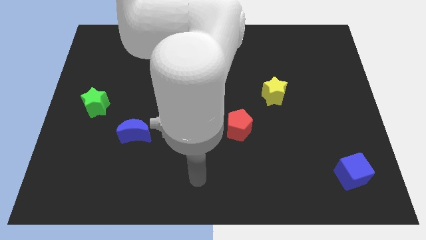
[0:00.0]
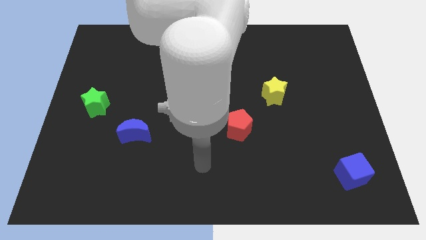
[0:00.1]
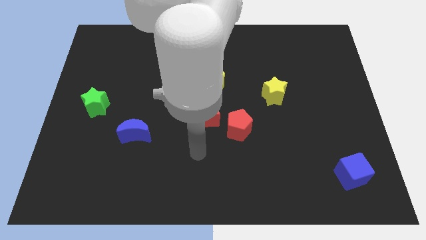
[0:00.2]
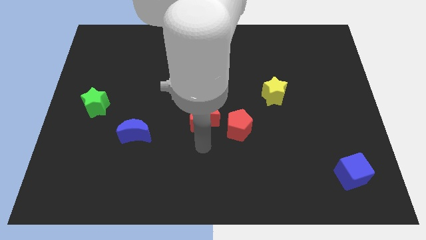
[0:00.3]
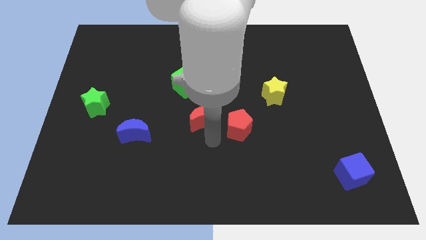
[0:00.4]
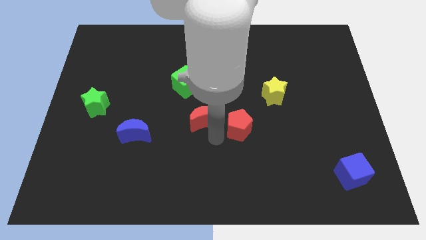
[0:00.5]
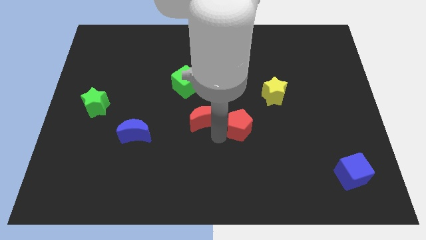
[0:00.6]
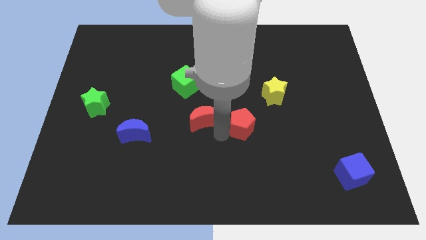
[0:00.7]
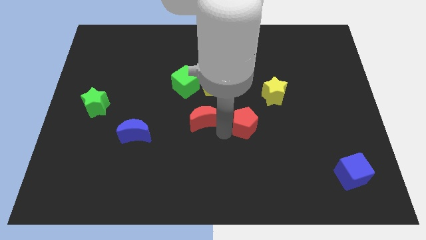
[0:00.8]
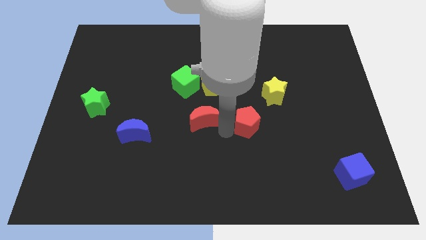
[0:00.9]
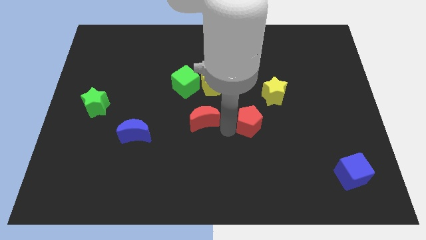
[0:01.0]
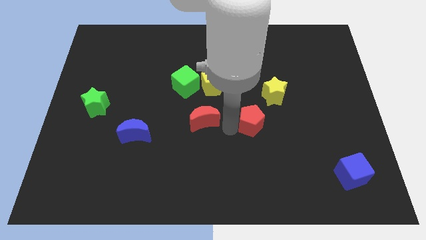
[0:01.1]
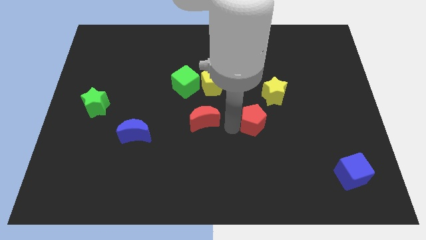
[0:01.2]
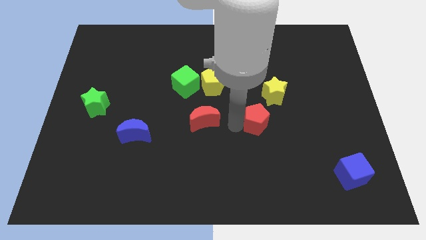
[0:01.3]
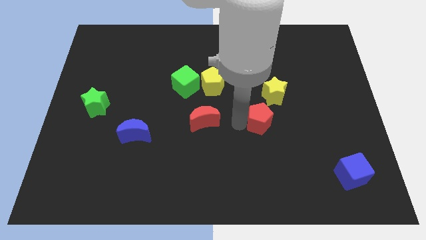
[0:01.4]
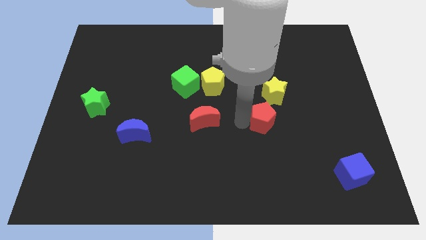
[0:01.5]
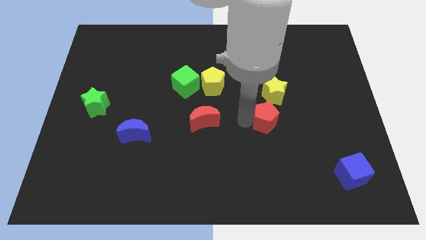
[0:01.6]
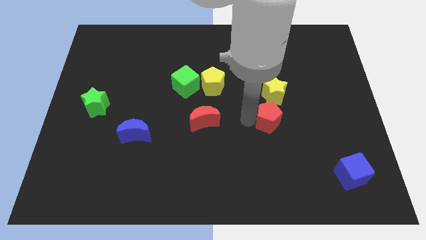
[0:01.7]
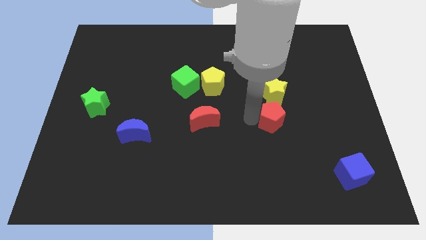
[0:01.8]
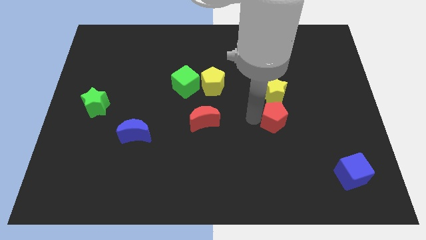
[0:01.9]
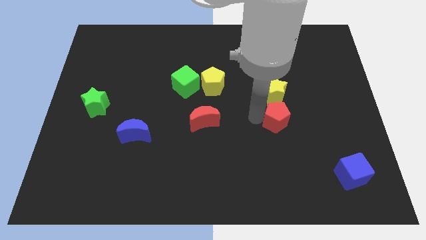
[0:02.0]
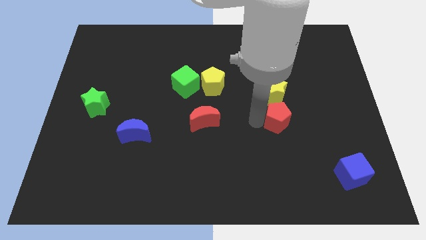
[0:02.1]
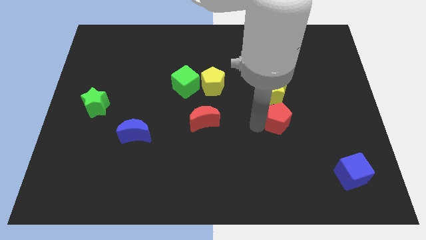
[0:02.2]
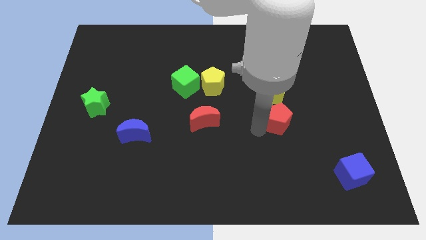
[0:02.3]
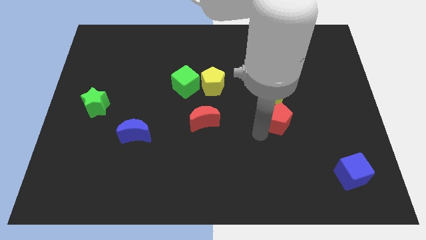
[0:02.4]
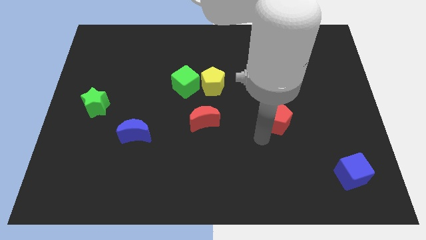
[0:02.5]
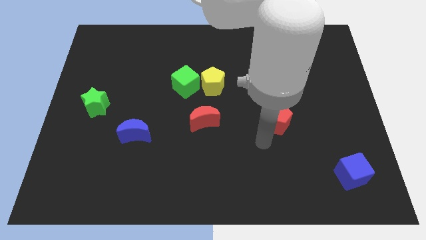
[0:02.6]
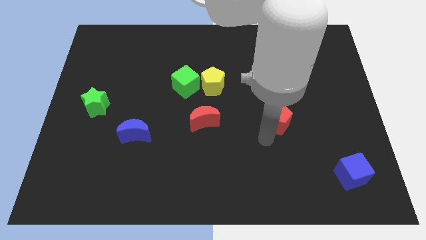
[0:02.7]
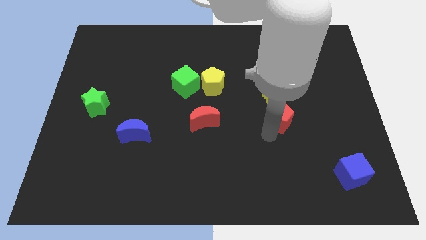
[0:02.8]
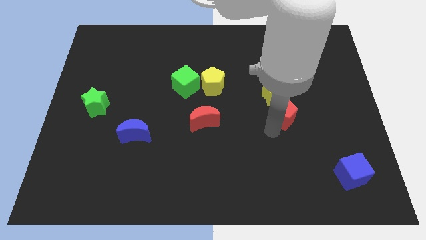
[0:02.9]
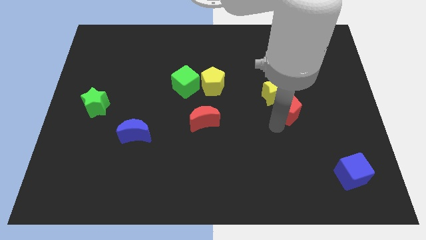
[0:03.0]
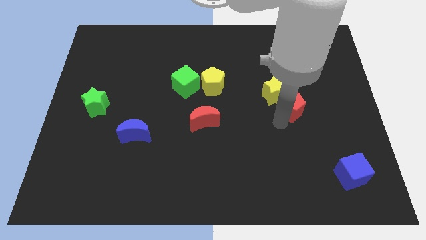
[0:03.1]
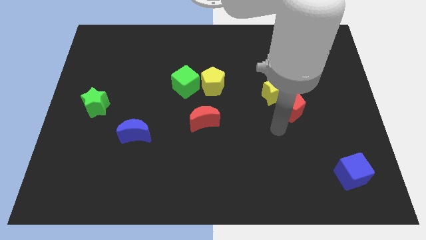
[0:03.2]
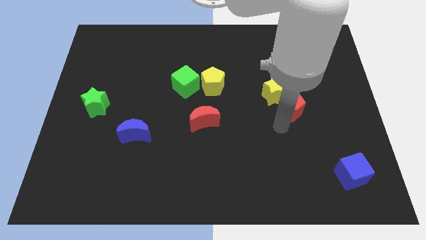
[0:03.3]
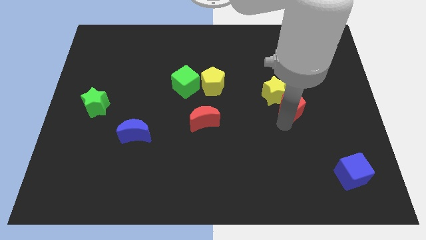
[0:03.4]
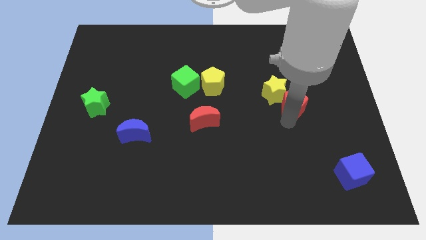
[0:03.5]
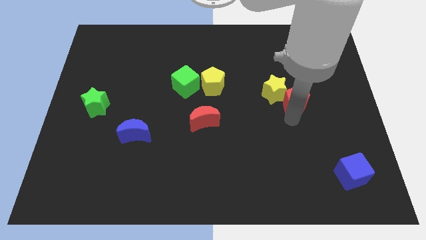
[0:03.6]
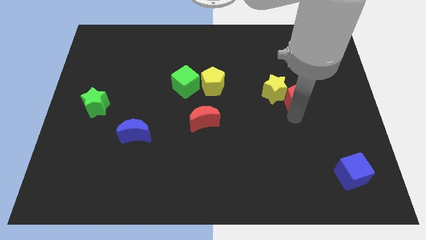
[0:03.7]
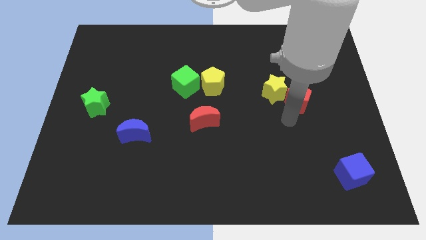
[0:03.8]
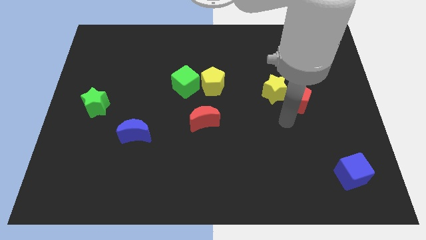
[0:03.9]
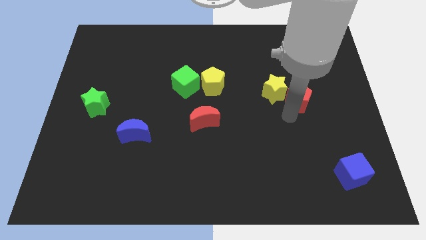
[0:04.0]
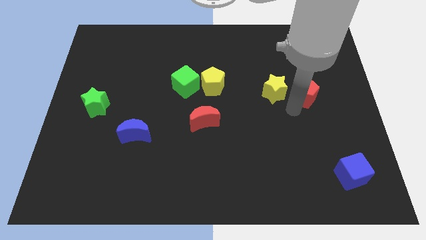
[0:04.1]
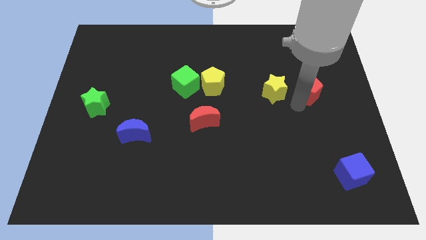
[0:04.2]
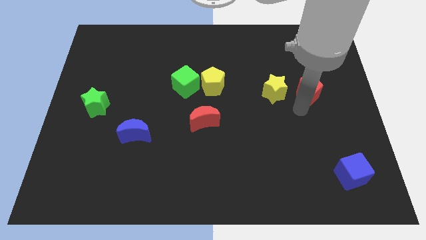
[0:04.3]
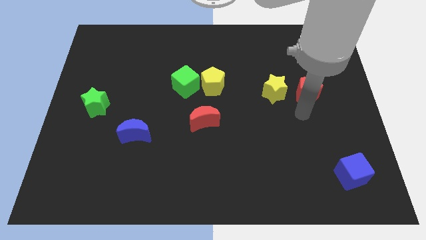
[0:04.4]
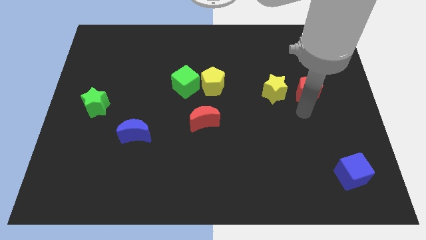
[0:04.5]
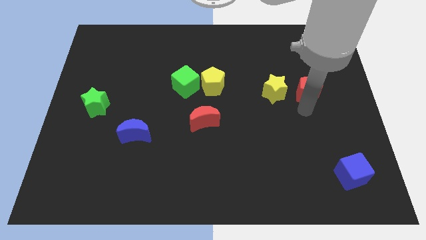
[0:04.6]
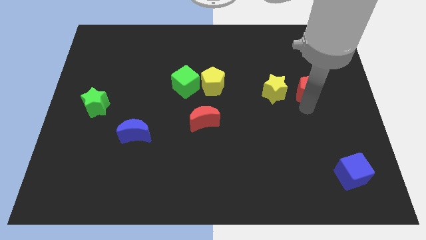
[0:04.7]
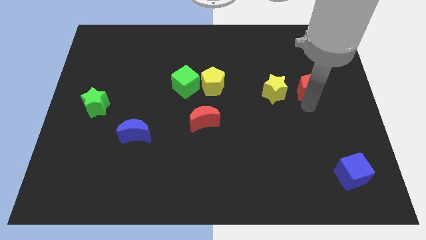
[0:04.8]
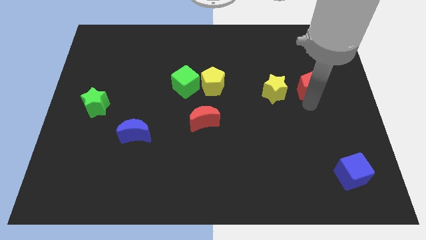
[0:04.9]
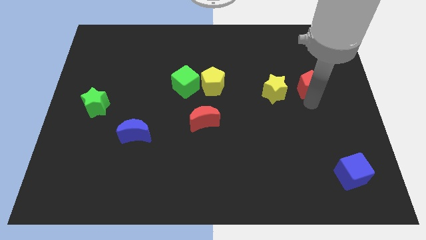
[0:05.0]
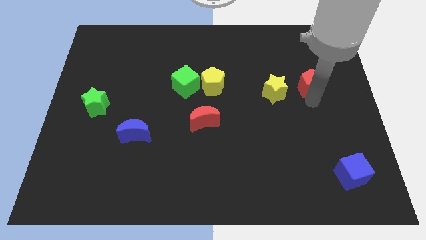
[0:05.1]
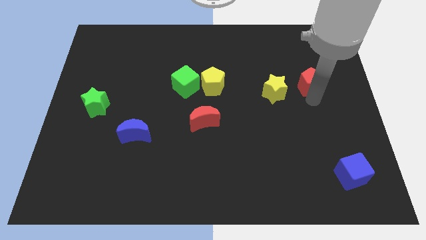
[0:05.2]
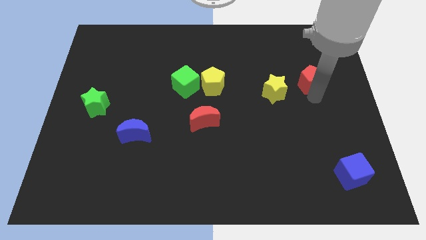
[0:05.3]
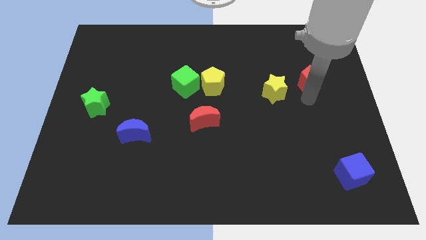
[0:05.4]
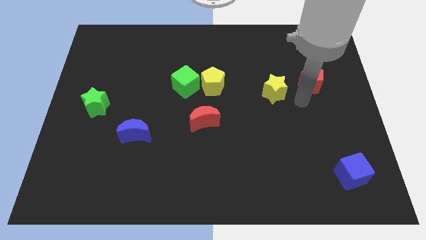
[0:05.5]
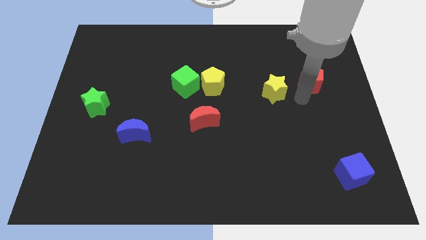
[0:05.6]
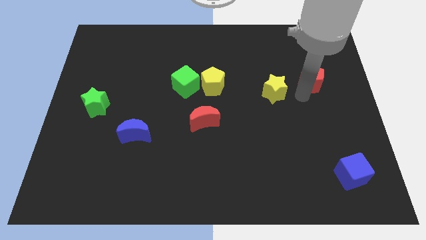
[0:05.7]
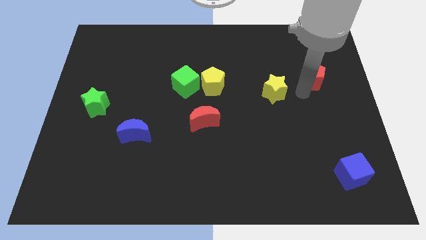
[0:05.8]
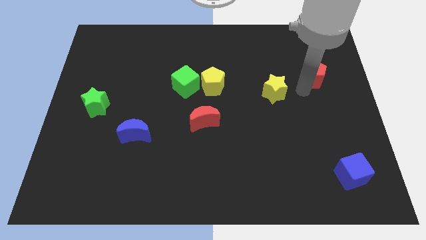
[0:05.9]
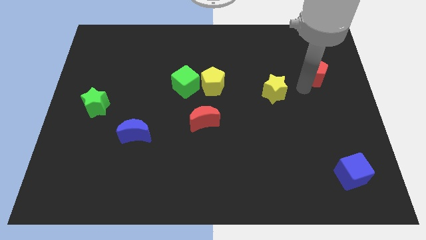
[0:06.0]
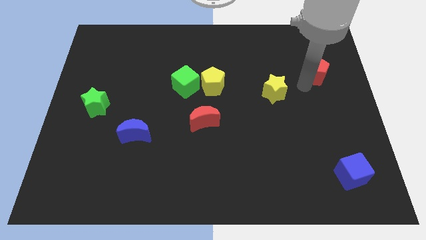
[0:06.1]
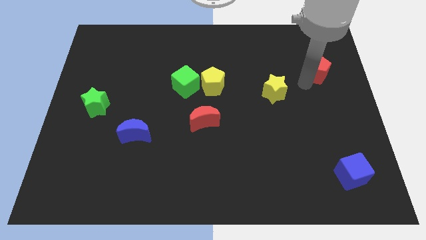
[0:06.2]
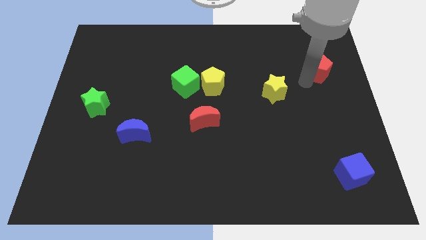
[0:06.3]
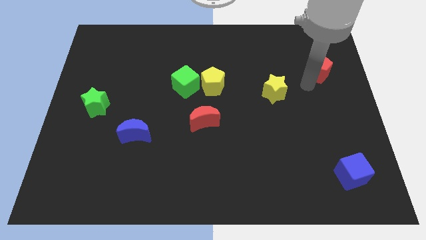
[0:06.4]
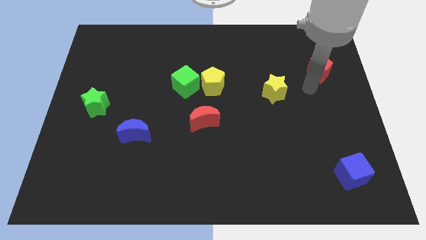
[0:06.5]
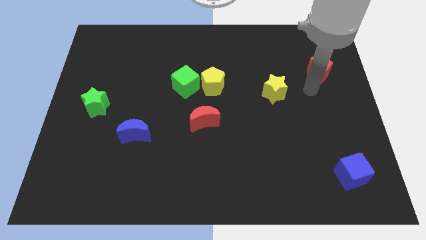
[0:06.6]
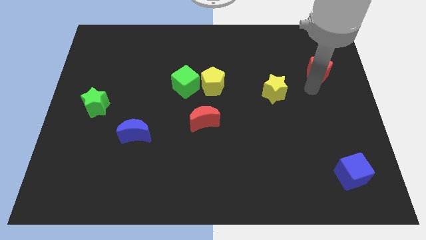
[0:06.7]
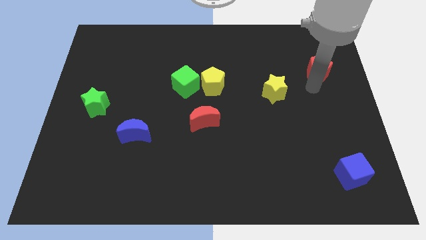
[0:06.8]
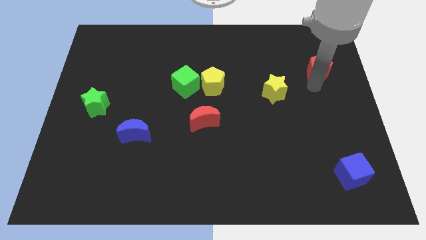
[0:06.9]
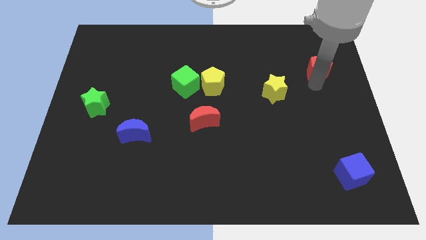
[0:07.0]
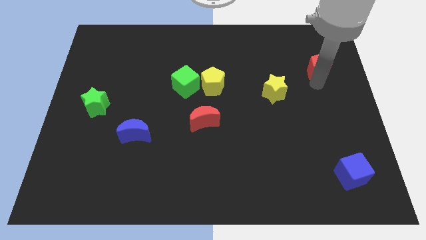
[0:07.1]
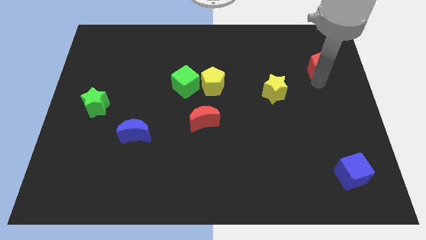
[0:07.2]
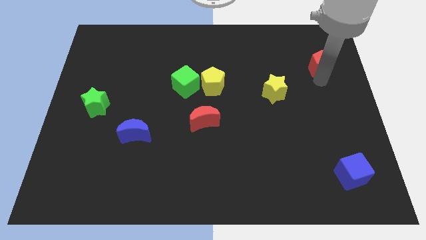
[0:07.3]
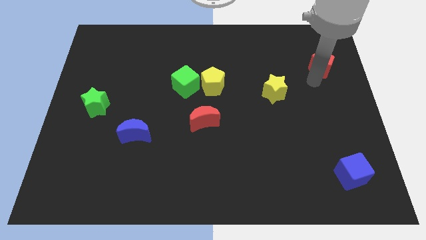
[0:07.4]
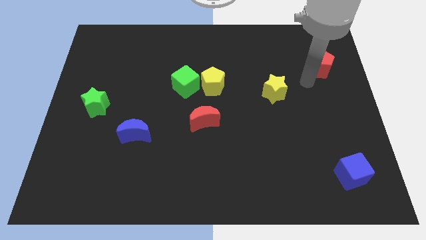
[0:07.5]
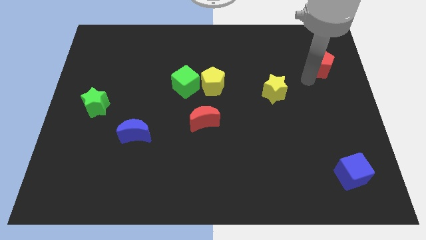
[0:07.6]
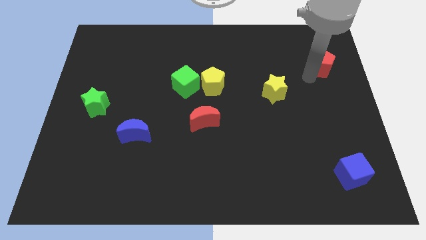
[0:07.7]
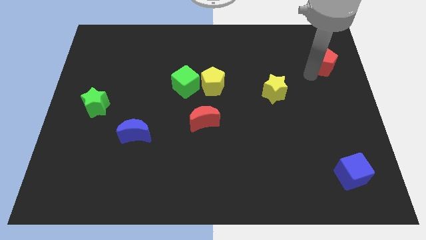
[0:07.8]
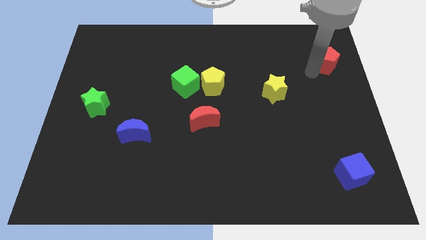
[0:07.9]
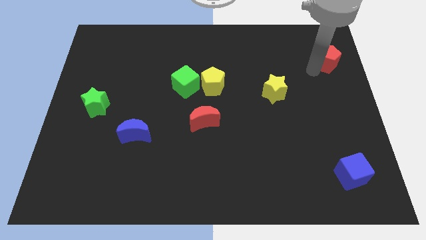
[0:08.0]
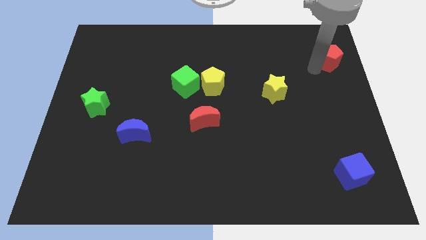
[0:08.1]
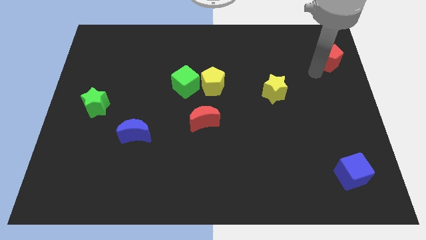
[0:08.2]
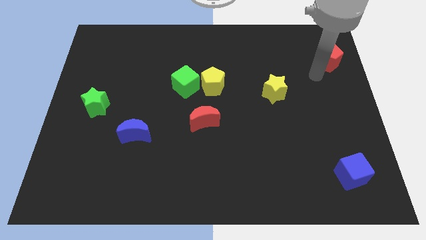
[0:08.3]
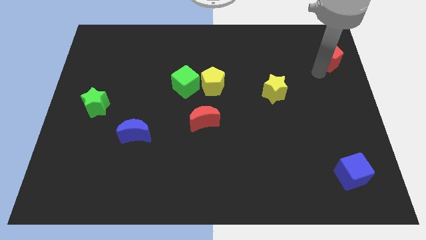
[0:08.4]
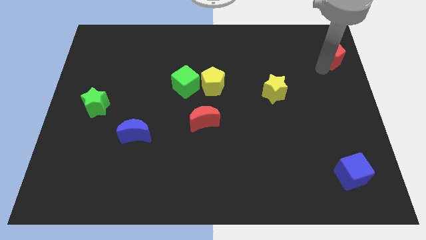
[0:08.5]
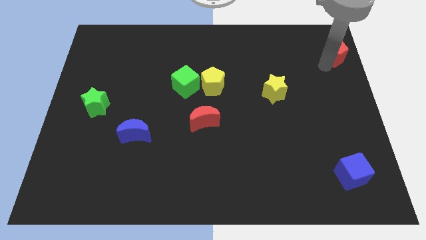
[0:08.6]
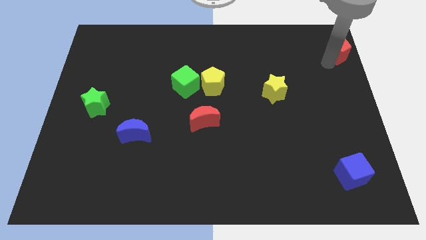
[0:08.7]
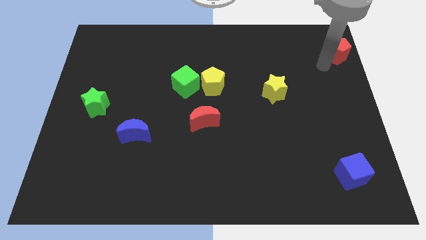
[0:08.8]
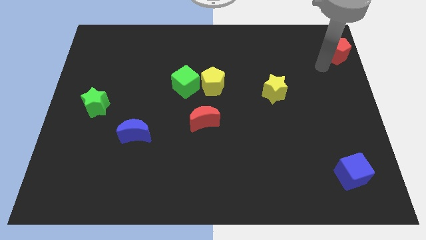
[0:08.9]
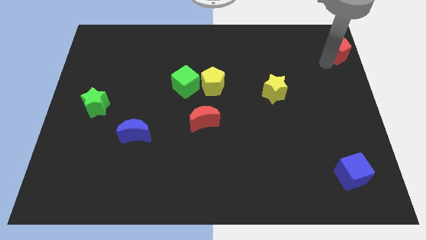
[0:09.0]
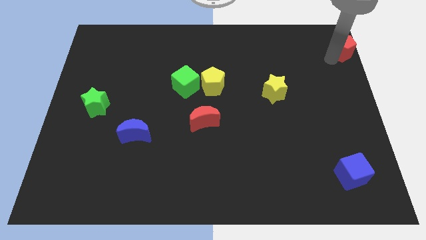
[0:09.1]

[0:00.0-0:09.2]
put the red pentagon to the top right of the board
